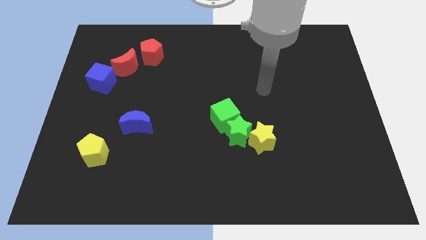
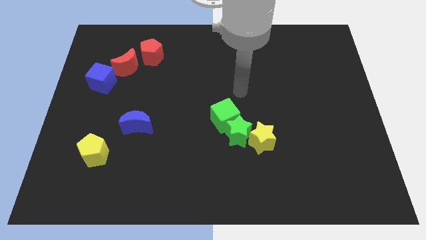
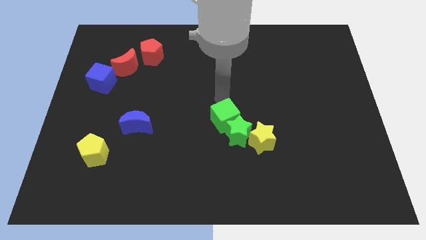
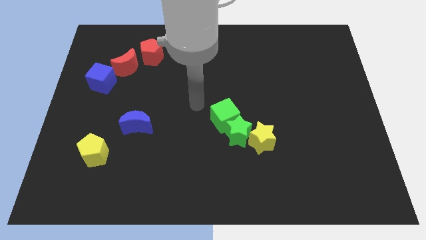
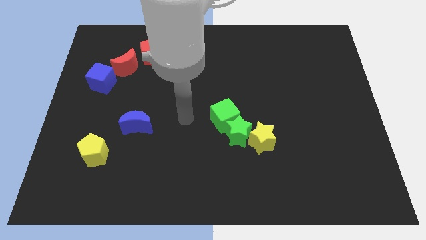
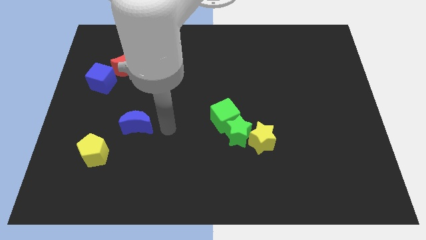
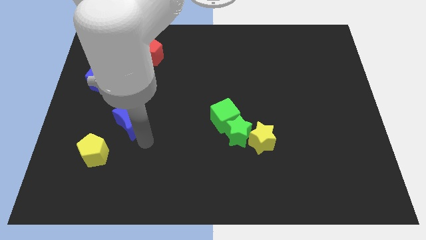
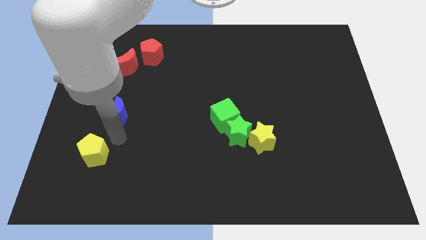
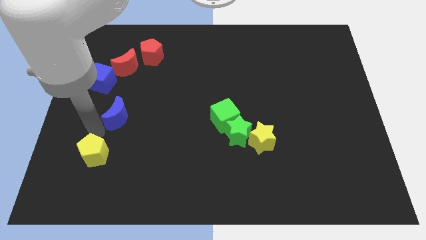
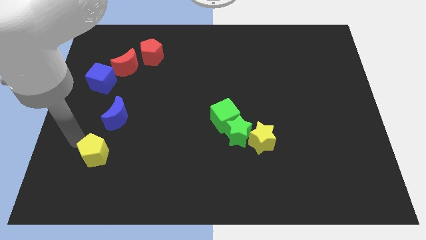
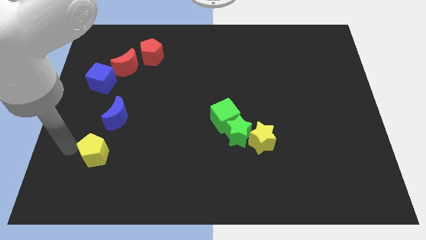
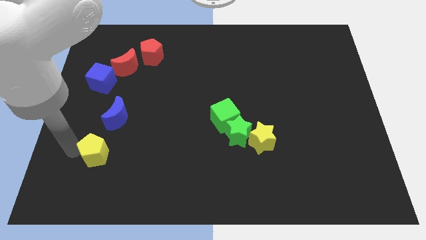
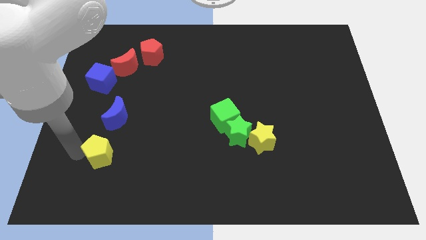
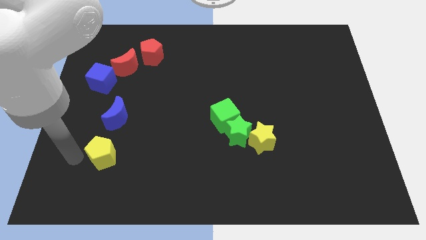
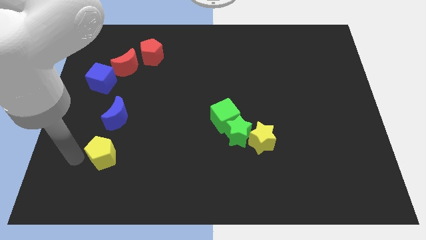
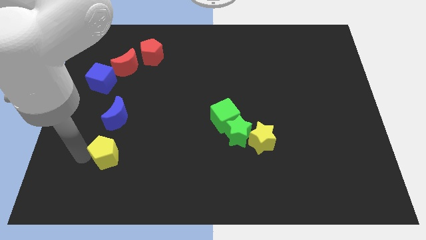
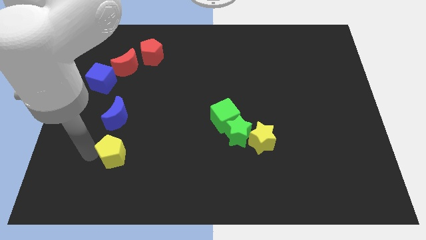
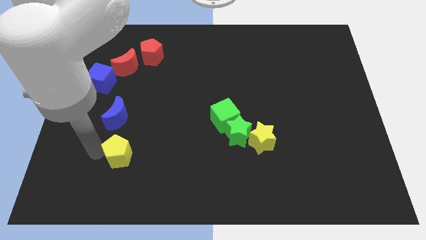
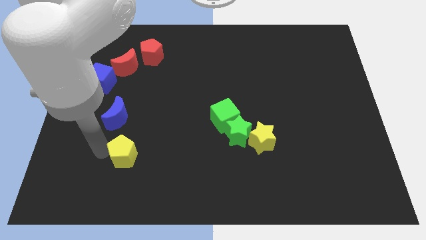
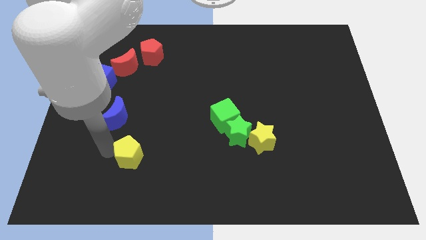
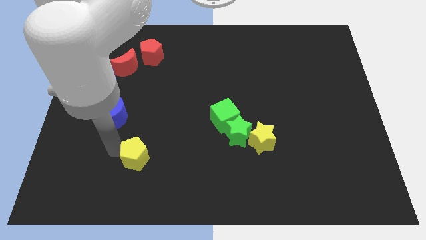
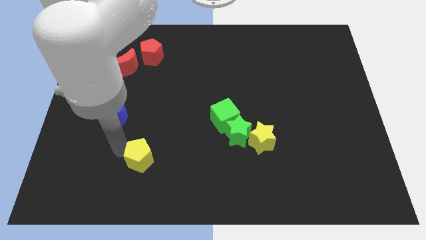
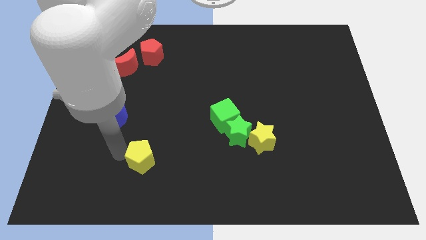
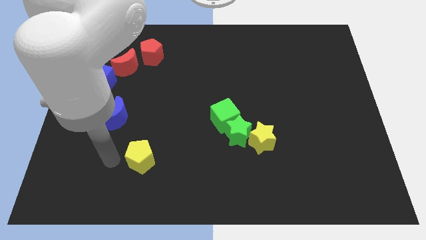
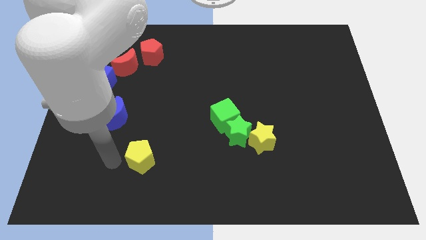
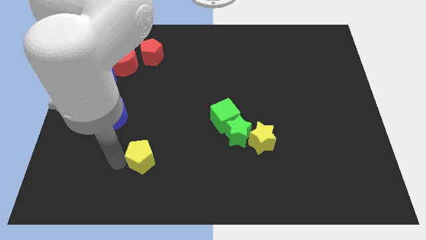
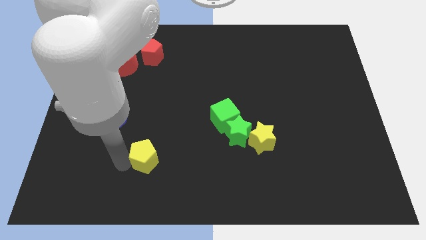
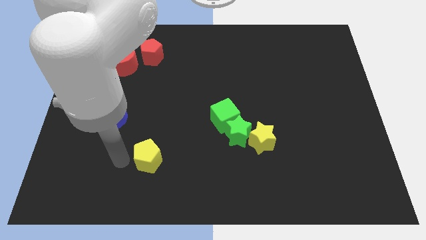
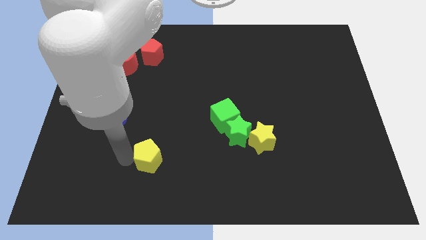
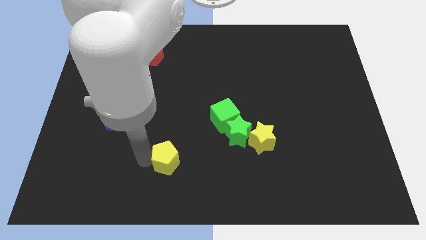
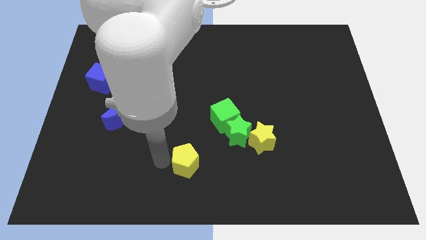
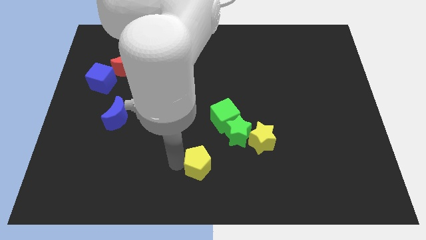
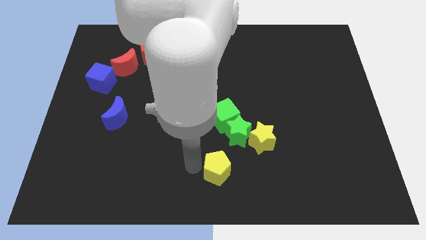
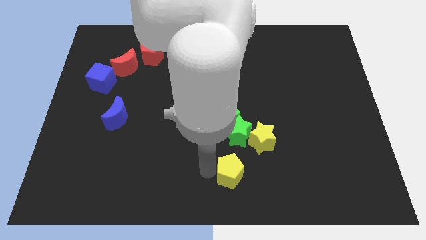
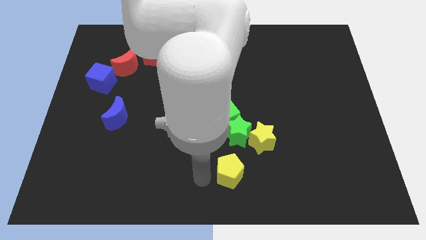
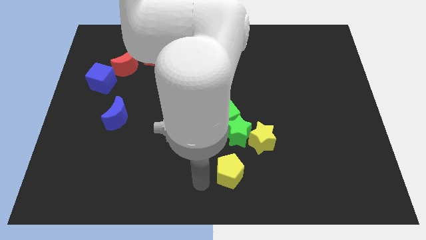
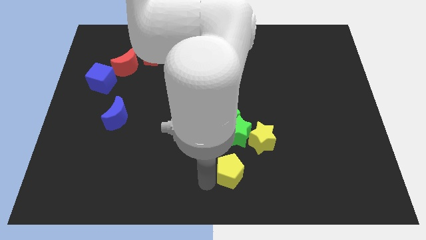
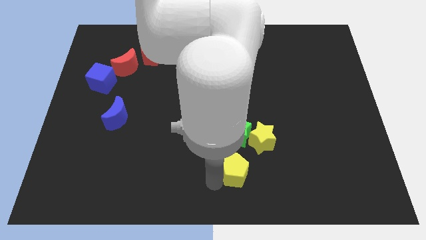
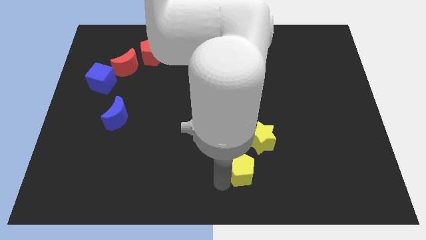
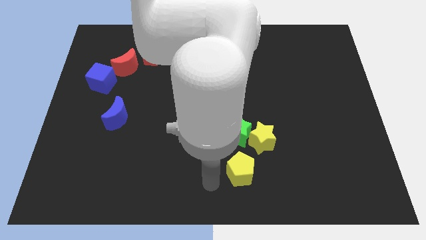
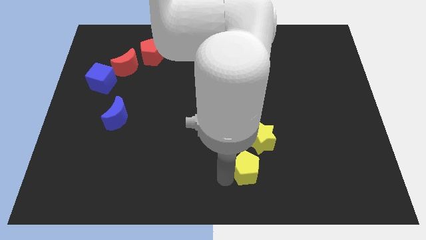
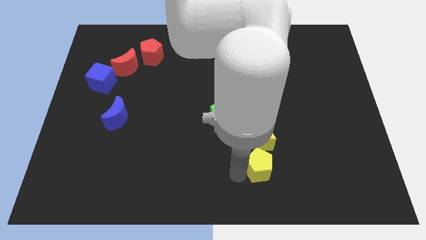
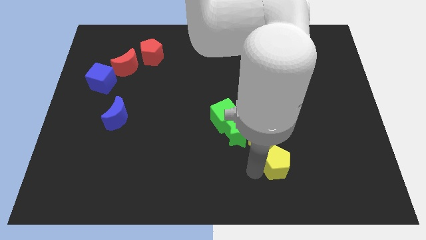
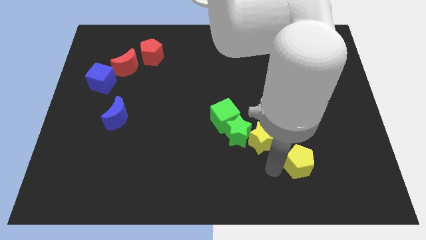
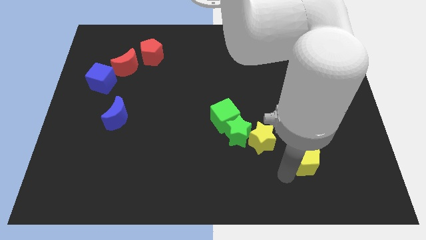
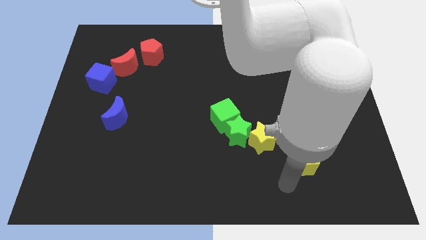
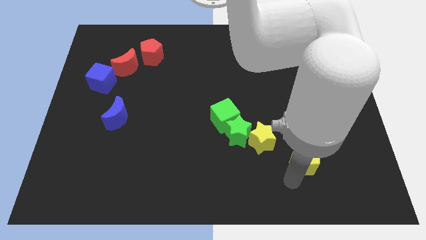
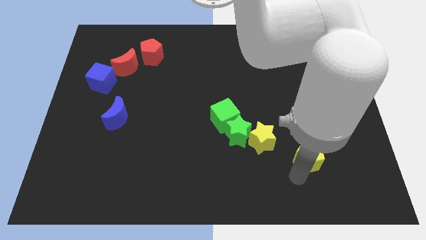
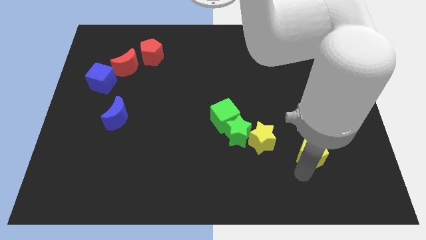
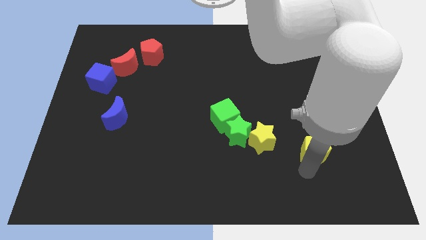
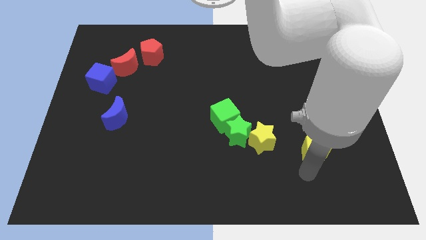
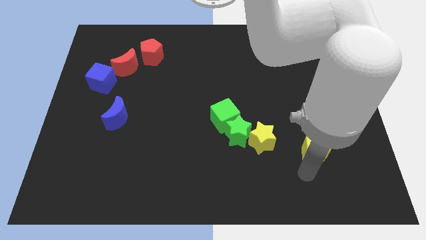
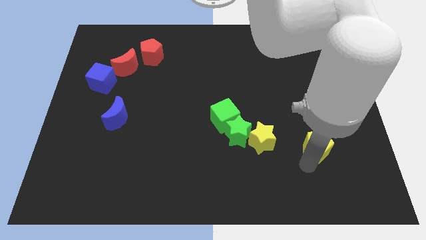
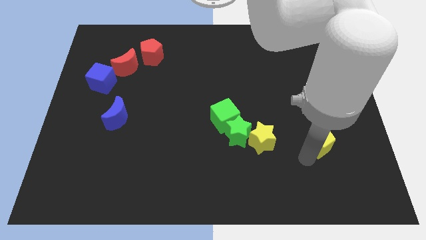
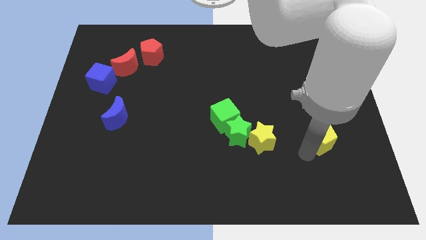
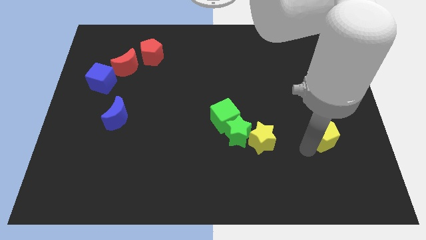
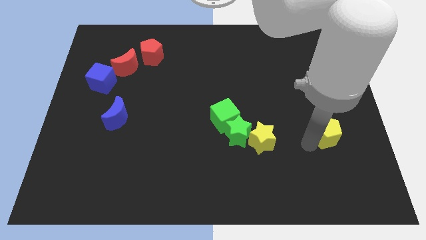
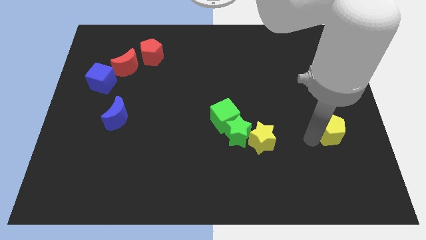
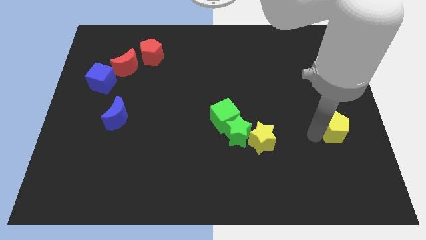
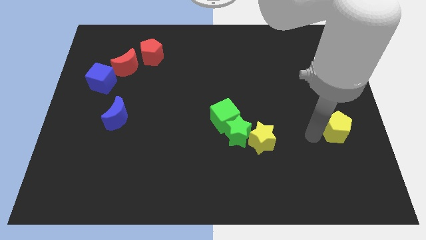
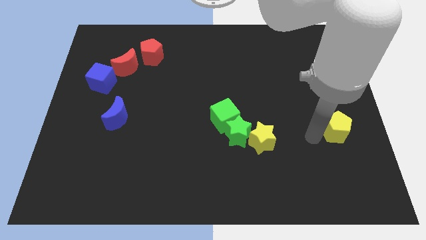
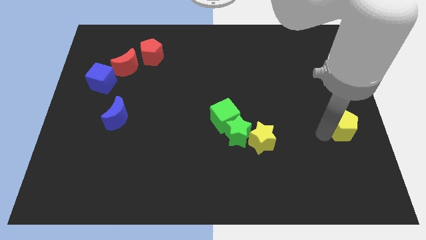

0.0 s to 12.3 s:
move the yellow pentagon to the center right
